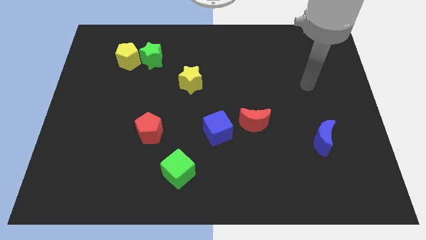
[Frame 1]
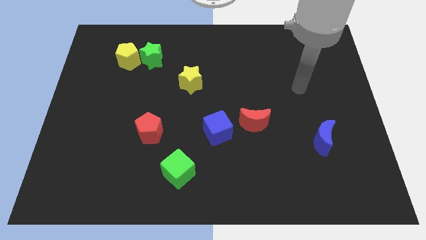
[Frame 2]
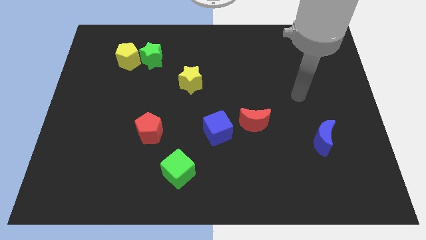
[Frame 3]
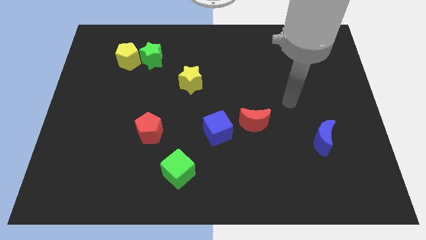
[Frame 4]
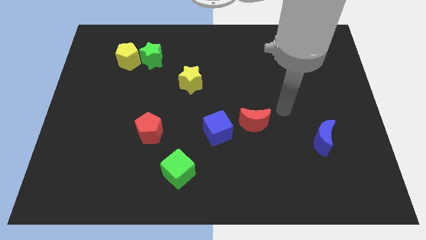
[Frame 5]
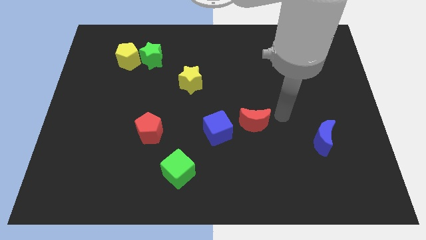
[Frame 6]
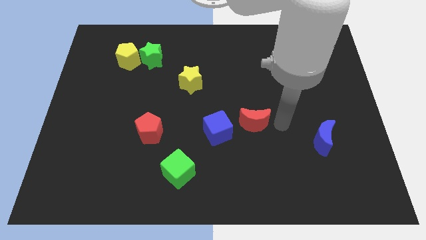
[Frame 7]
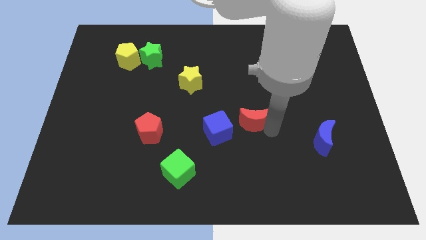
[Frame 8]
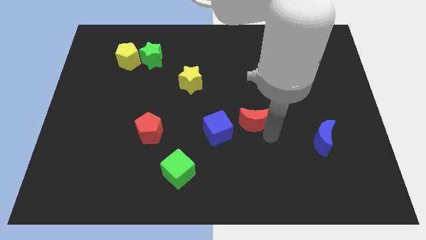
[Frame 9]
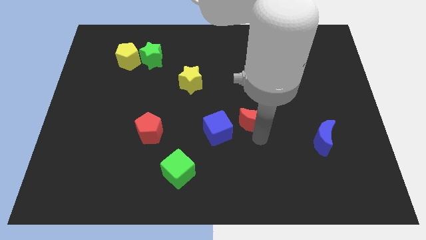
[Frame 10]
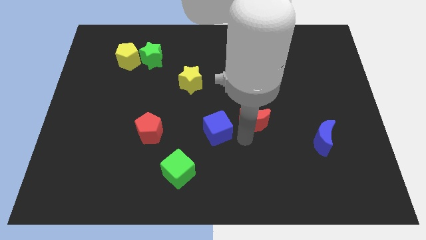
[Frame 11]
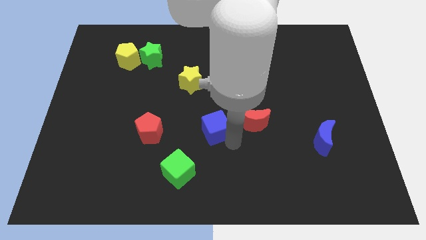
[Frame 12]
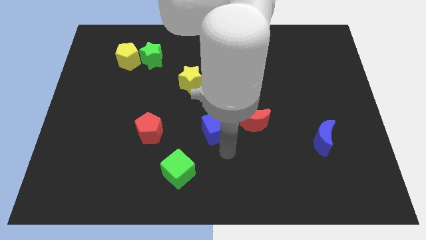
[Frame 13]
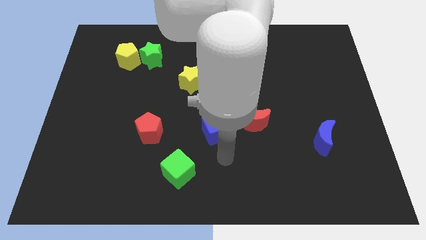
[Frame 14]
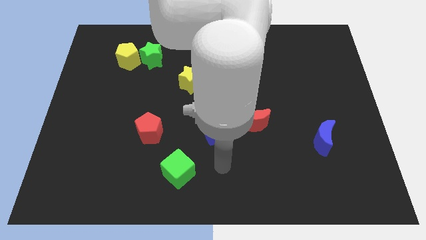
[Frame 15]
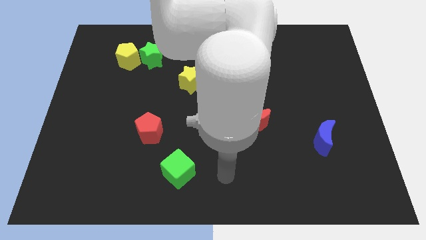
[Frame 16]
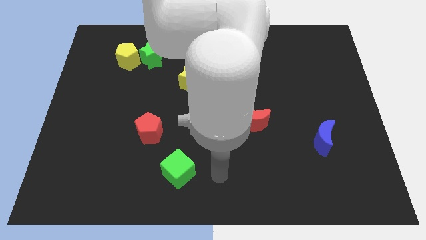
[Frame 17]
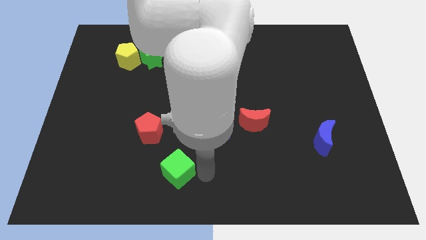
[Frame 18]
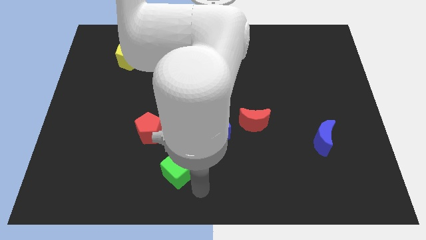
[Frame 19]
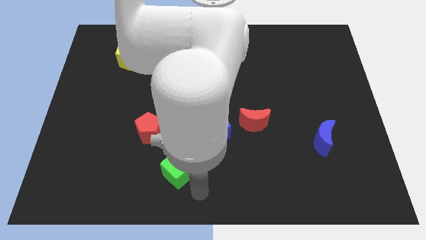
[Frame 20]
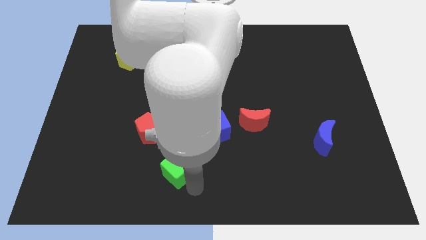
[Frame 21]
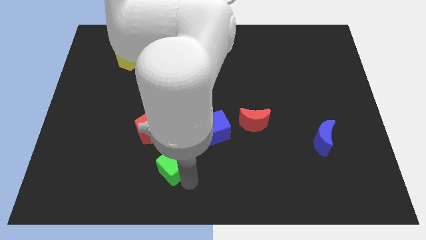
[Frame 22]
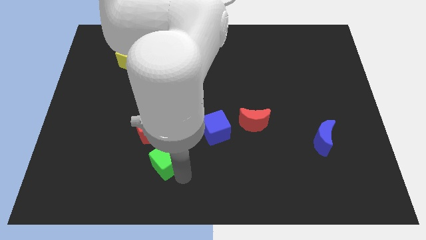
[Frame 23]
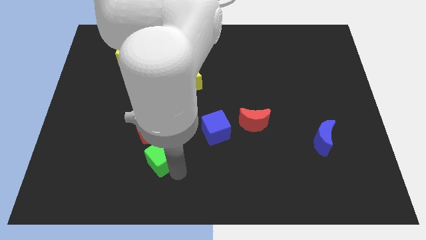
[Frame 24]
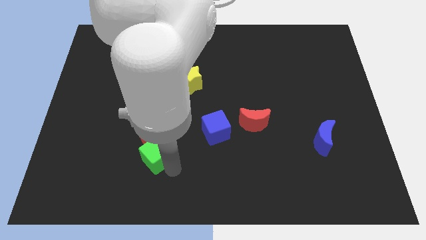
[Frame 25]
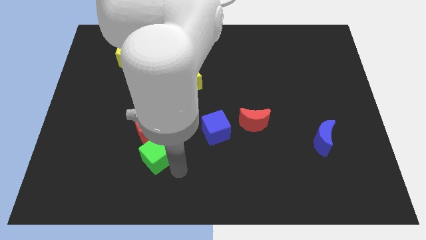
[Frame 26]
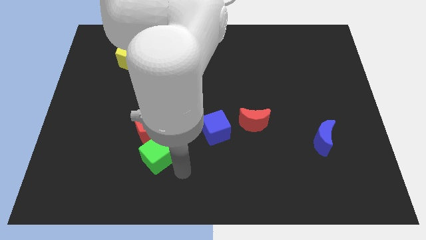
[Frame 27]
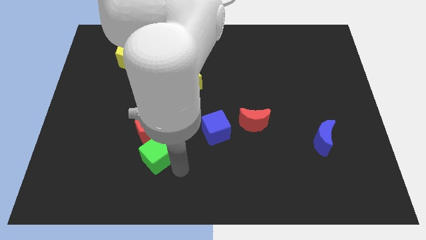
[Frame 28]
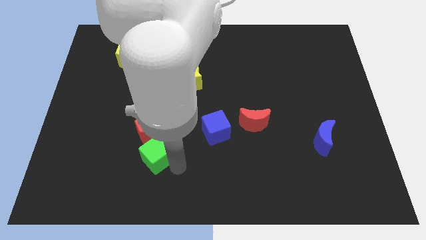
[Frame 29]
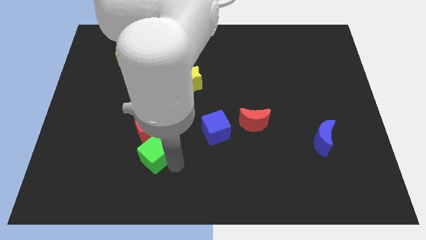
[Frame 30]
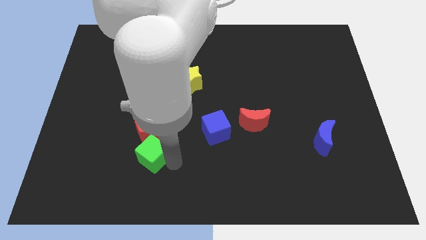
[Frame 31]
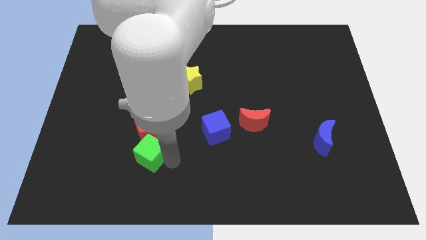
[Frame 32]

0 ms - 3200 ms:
move the green cube a little up and left diagonally

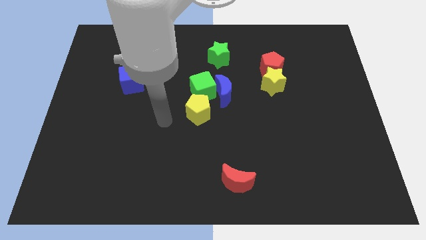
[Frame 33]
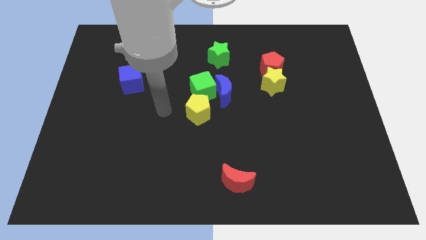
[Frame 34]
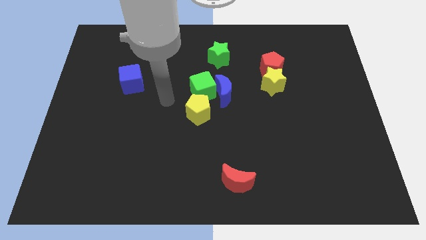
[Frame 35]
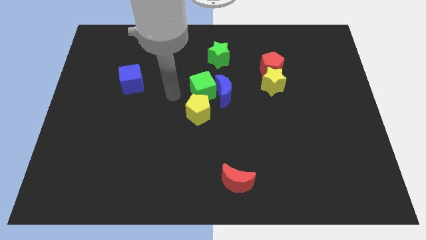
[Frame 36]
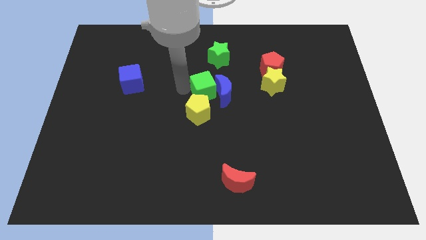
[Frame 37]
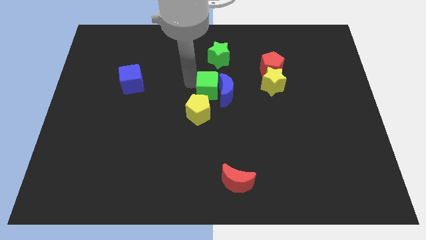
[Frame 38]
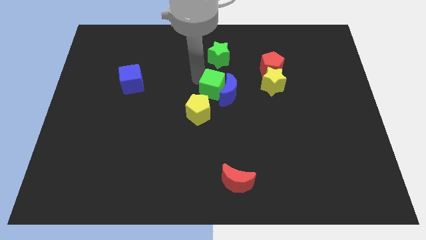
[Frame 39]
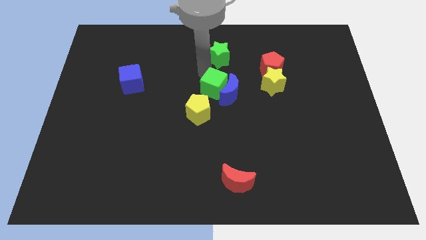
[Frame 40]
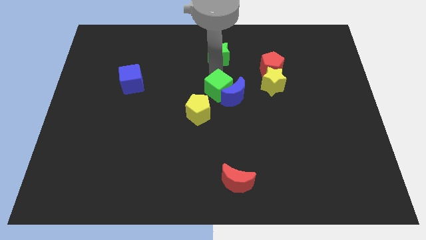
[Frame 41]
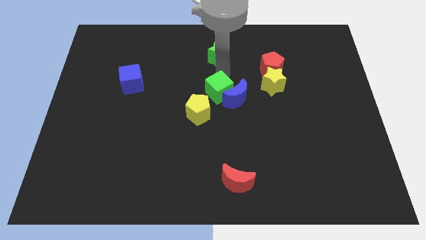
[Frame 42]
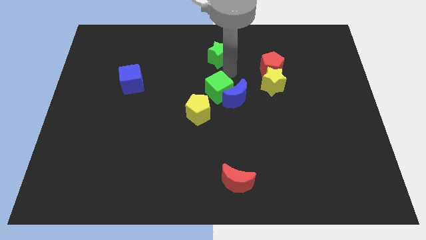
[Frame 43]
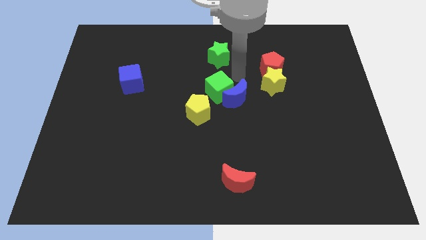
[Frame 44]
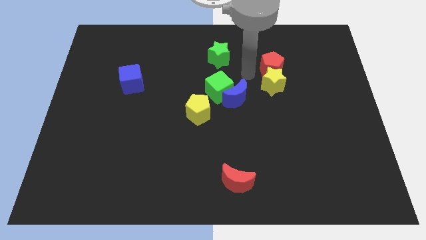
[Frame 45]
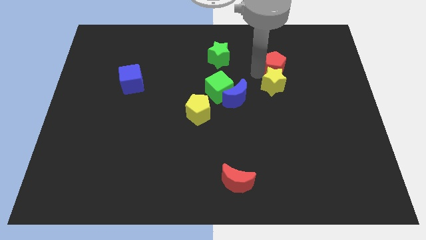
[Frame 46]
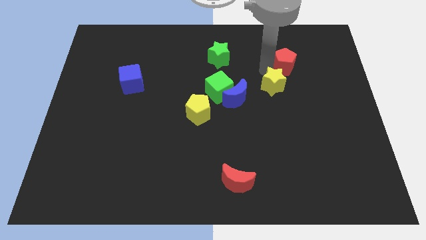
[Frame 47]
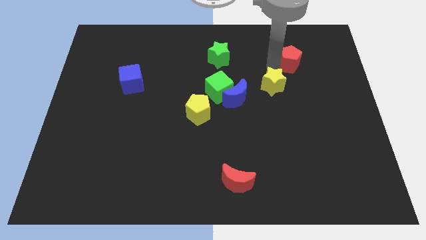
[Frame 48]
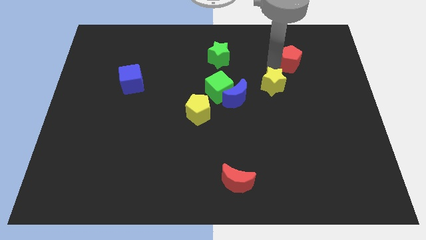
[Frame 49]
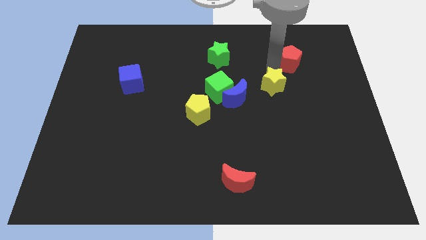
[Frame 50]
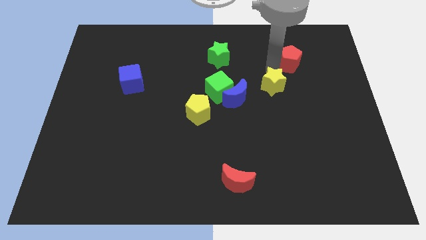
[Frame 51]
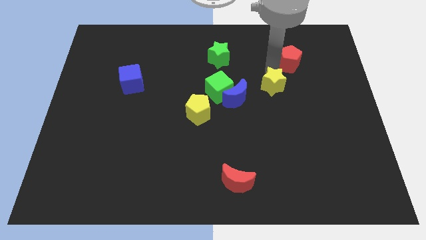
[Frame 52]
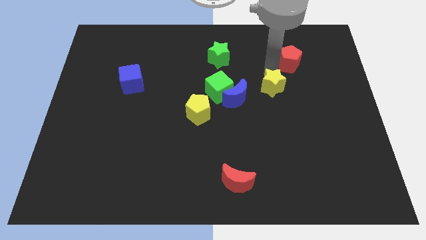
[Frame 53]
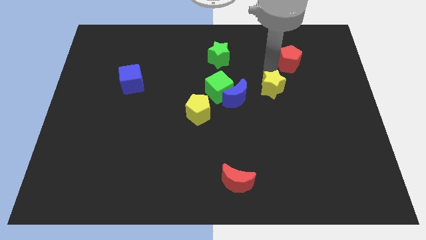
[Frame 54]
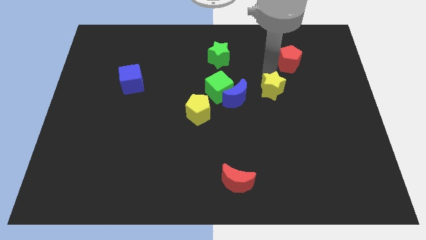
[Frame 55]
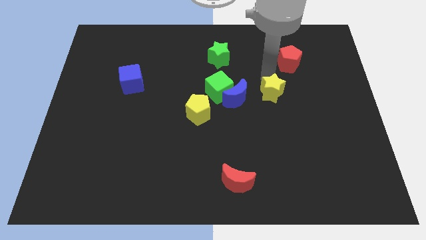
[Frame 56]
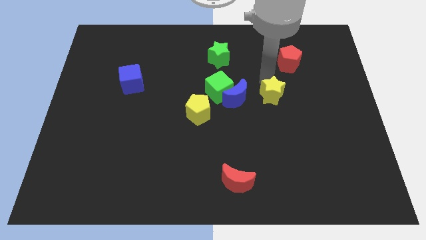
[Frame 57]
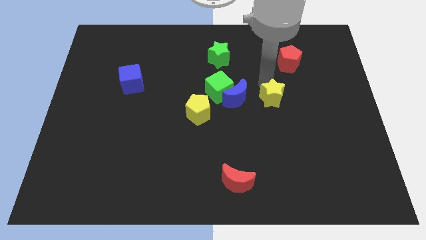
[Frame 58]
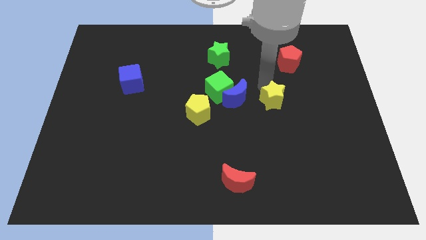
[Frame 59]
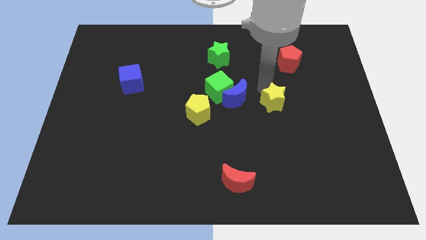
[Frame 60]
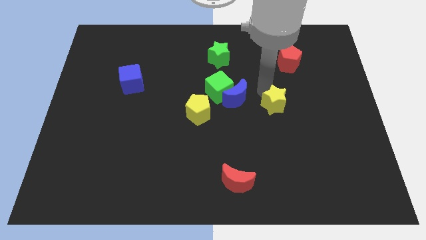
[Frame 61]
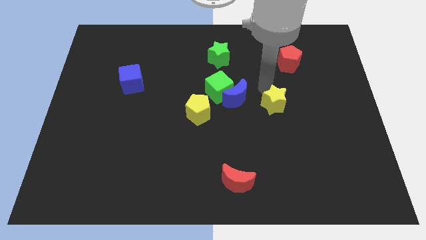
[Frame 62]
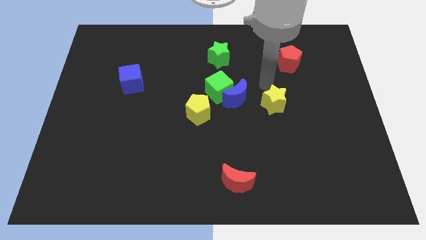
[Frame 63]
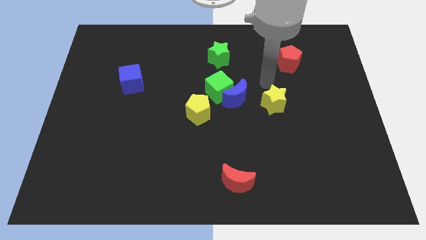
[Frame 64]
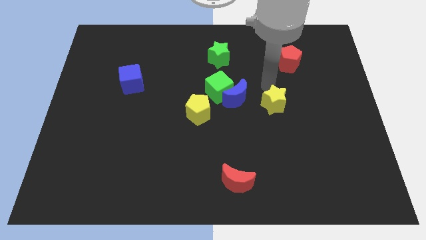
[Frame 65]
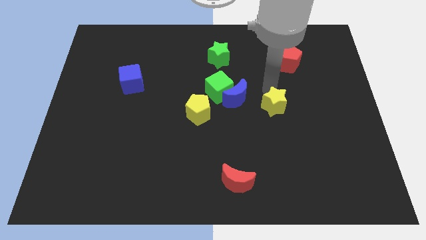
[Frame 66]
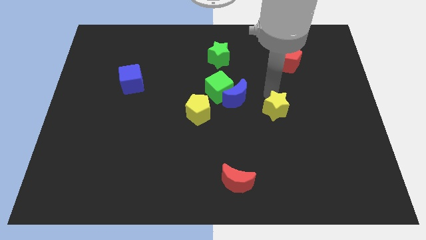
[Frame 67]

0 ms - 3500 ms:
slide the yellow star downwards a little

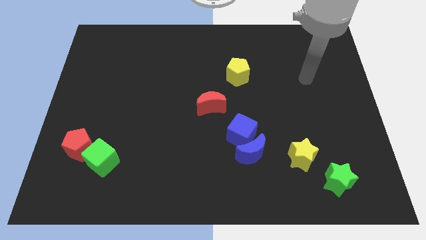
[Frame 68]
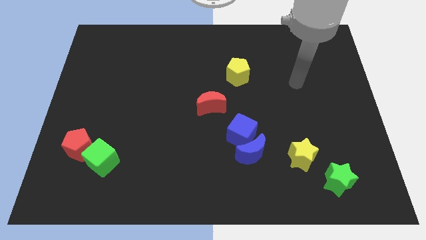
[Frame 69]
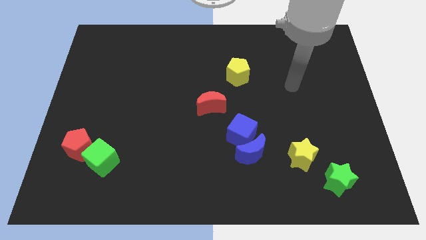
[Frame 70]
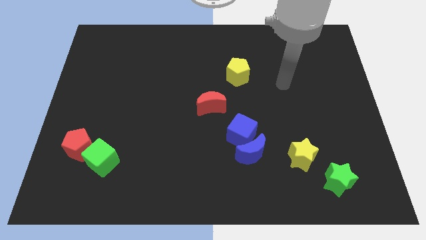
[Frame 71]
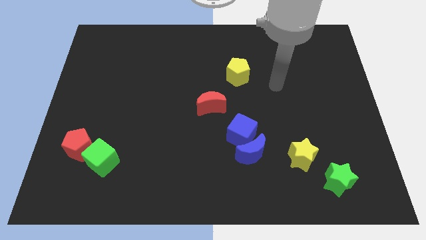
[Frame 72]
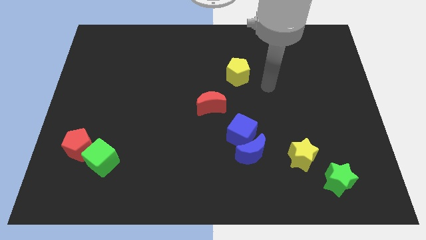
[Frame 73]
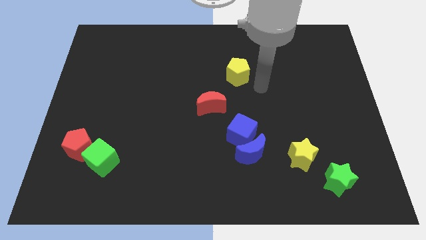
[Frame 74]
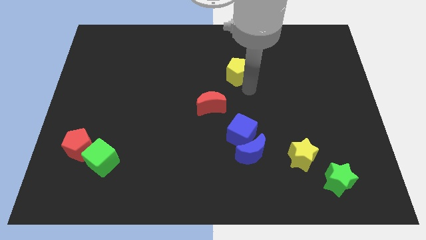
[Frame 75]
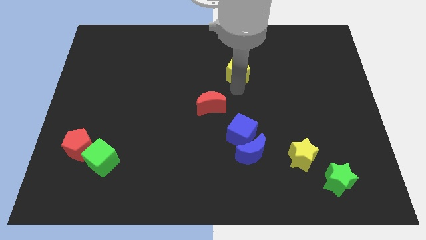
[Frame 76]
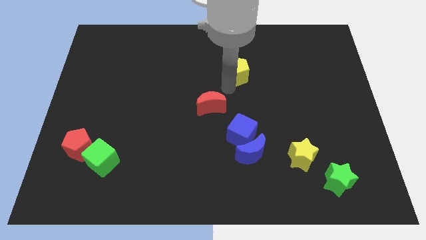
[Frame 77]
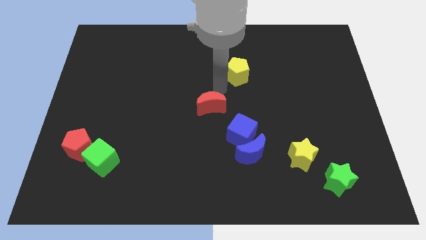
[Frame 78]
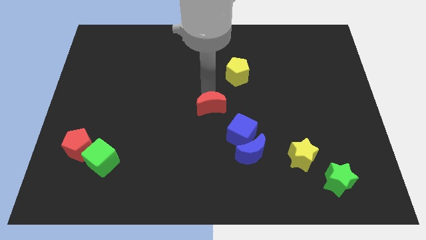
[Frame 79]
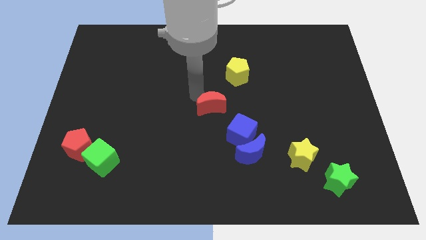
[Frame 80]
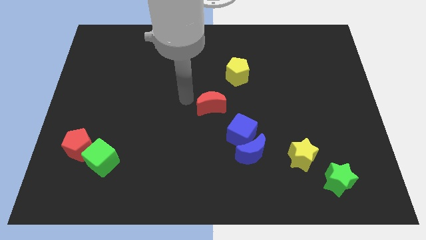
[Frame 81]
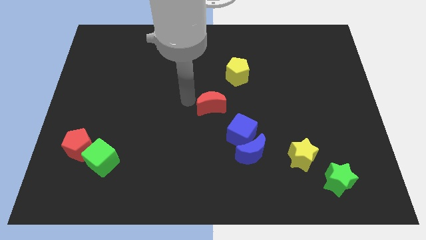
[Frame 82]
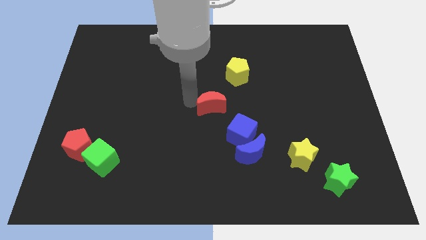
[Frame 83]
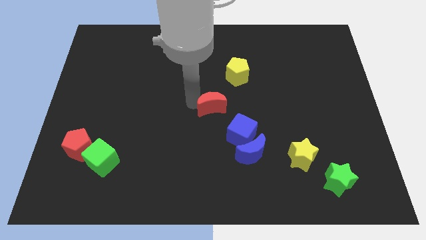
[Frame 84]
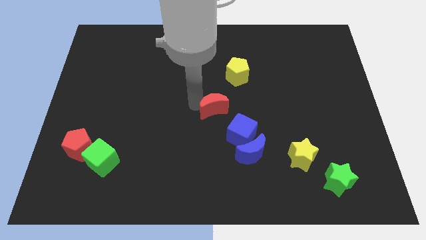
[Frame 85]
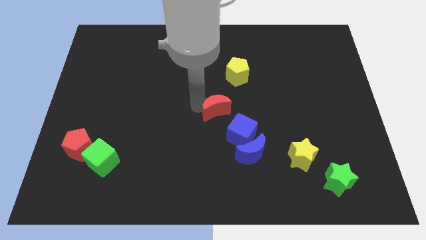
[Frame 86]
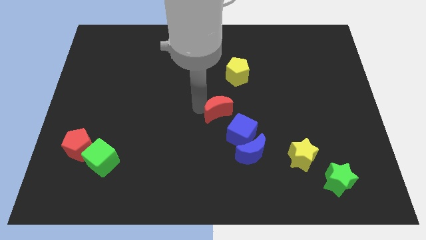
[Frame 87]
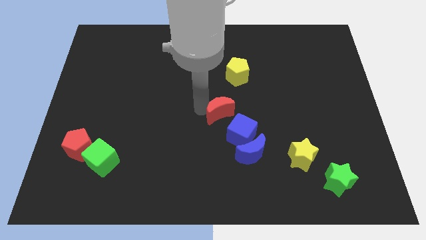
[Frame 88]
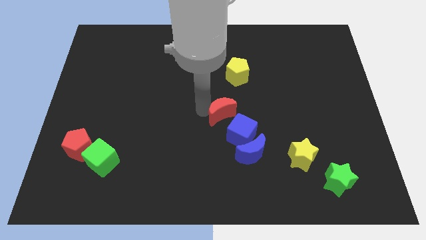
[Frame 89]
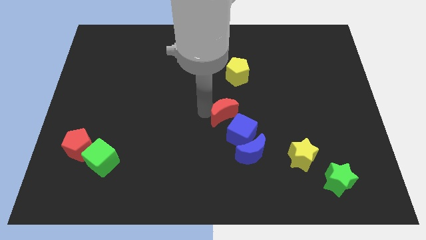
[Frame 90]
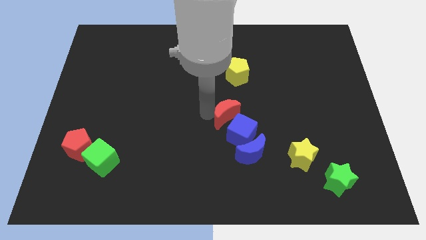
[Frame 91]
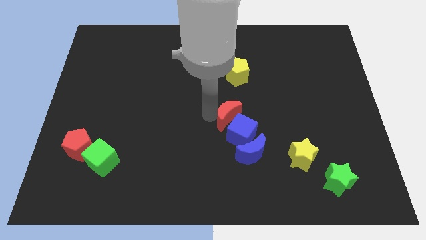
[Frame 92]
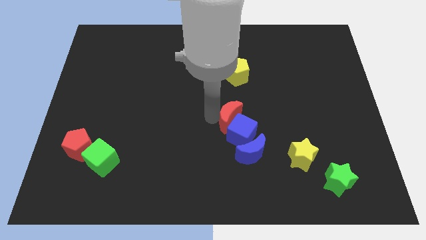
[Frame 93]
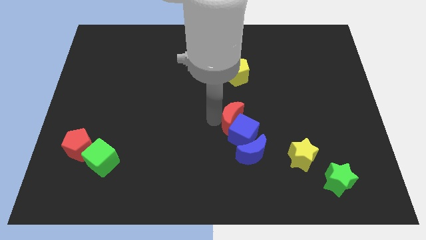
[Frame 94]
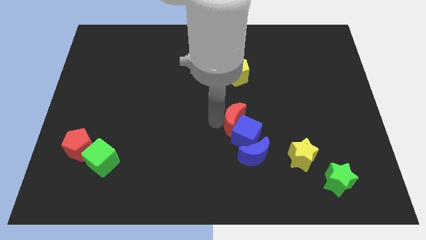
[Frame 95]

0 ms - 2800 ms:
slightly push the red moon diagonally downwards and right
